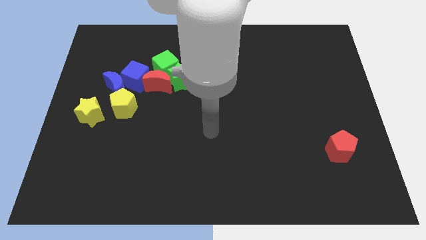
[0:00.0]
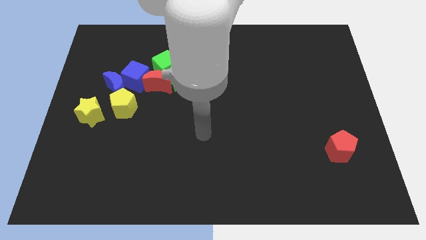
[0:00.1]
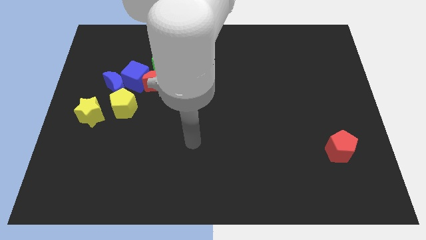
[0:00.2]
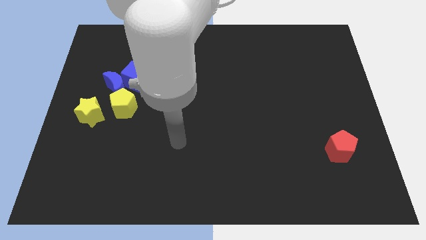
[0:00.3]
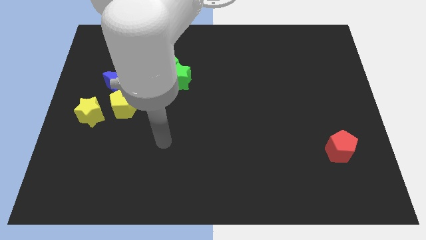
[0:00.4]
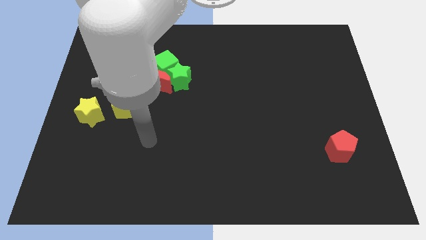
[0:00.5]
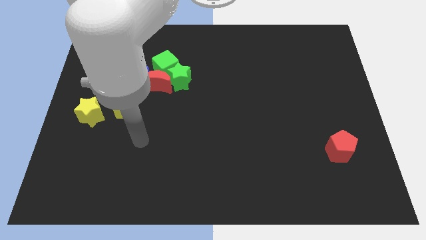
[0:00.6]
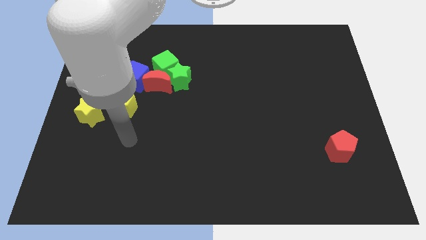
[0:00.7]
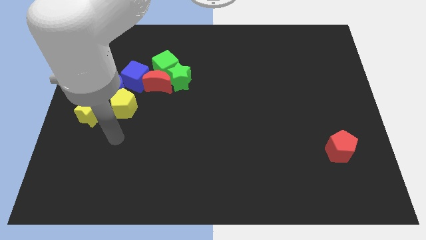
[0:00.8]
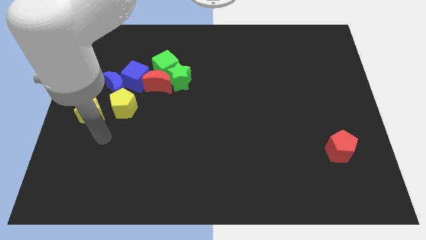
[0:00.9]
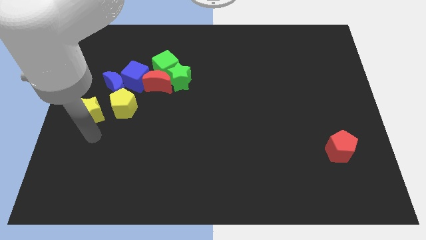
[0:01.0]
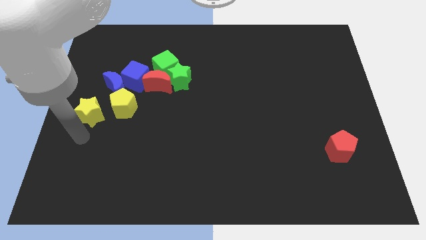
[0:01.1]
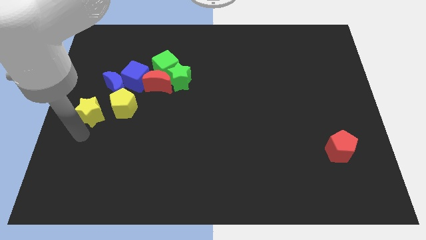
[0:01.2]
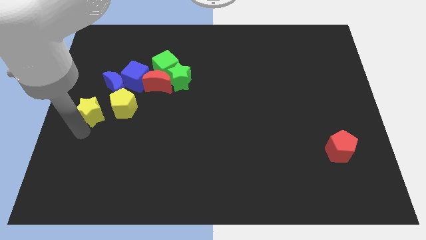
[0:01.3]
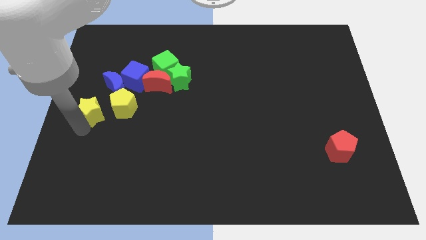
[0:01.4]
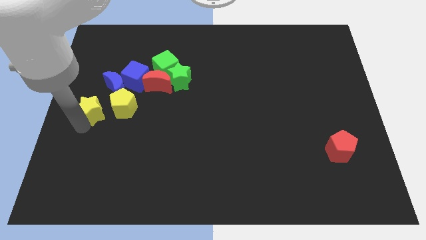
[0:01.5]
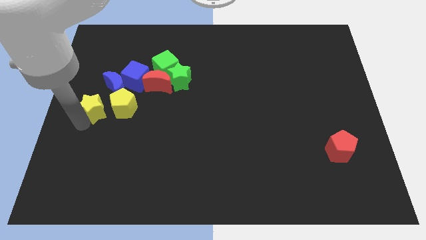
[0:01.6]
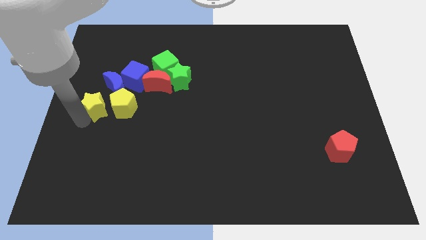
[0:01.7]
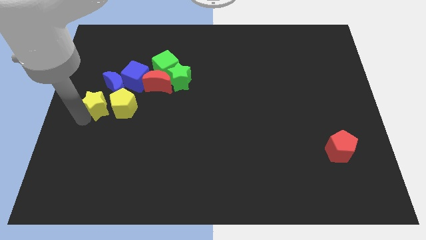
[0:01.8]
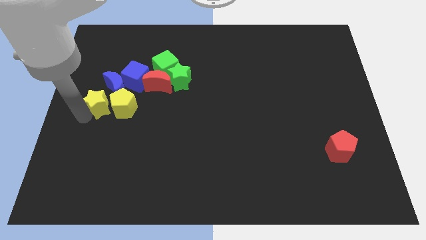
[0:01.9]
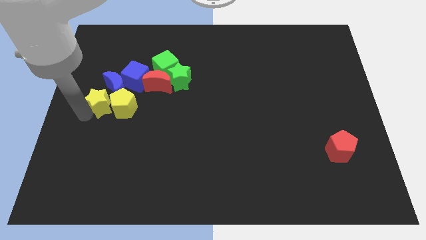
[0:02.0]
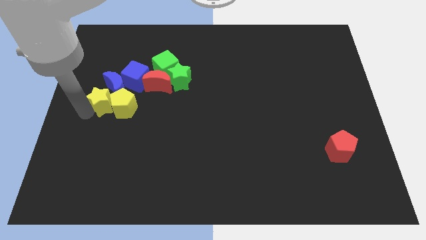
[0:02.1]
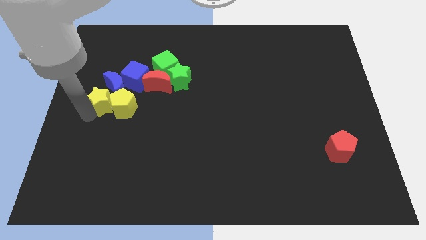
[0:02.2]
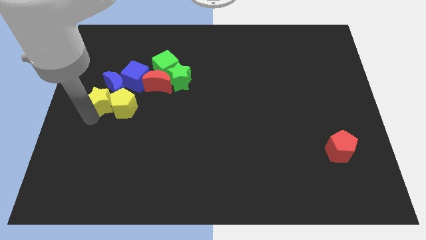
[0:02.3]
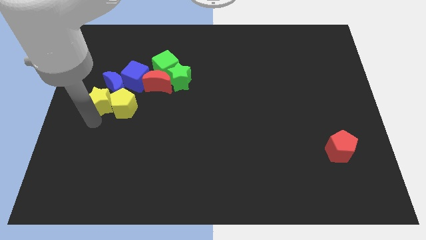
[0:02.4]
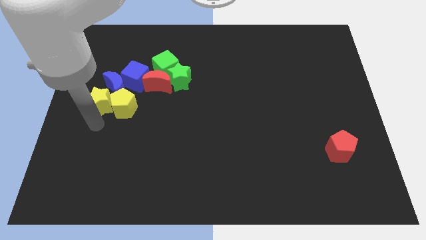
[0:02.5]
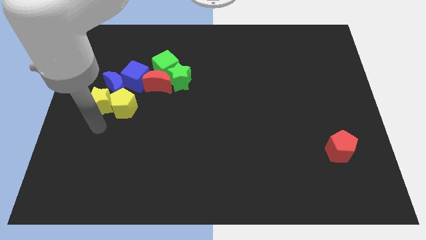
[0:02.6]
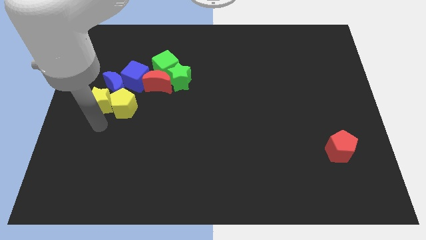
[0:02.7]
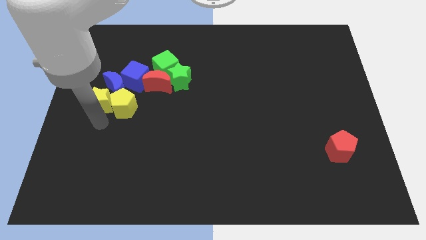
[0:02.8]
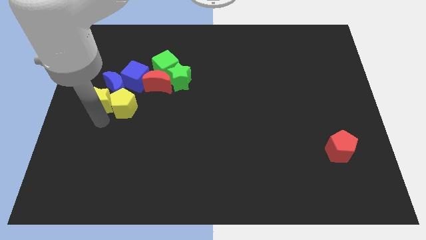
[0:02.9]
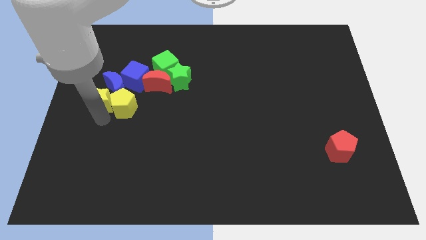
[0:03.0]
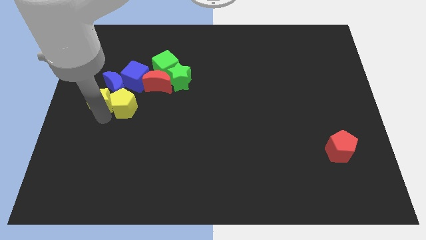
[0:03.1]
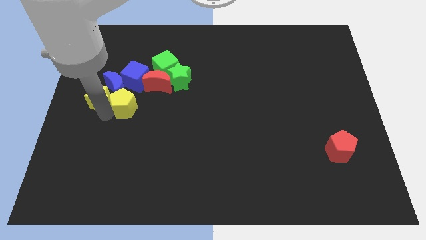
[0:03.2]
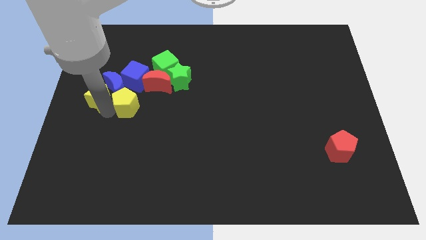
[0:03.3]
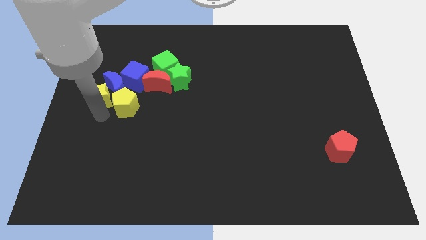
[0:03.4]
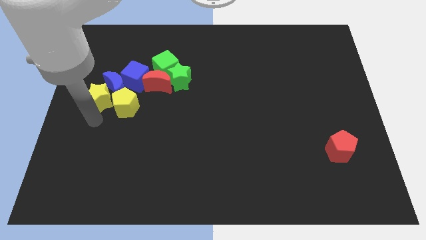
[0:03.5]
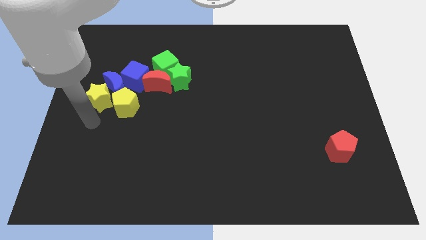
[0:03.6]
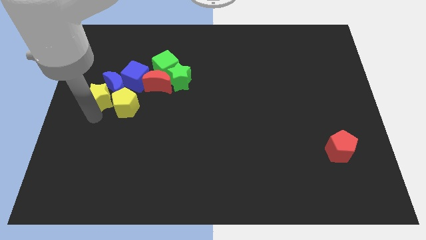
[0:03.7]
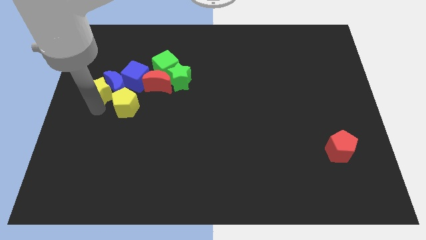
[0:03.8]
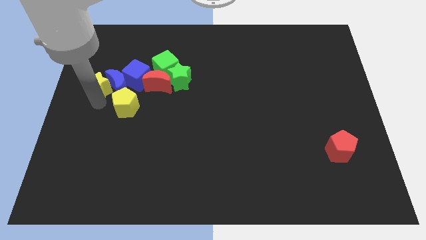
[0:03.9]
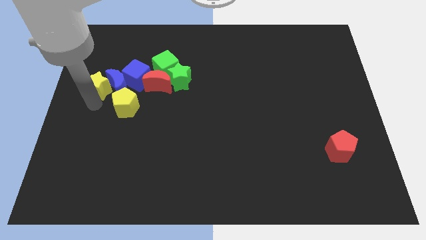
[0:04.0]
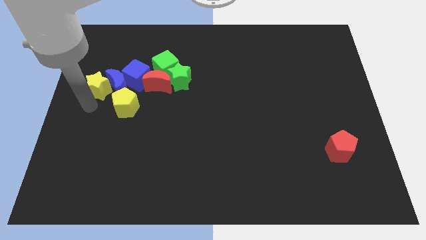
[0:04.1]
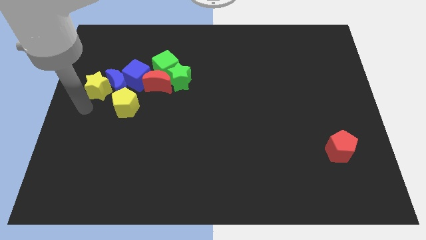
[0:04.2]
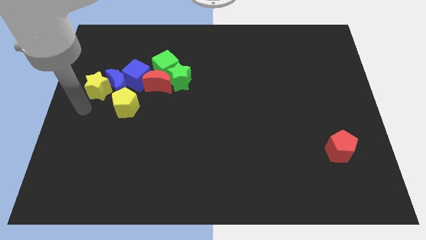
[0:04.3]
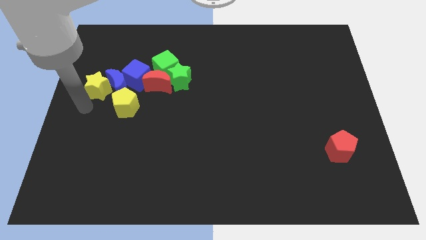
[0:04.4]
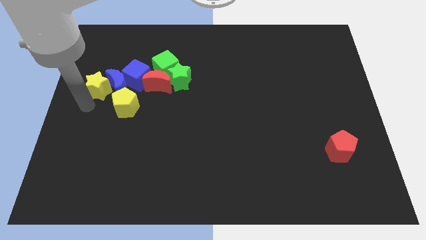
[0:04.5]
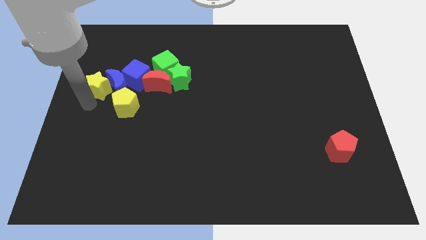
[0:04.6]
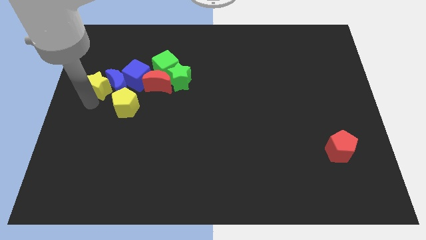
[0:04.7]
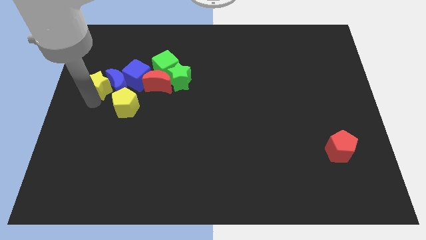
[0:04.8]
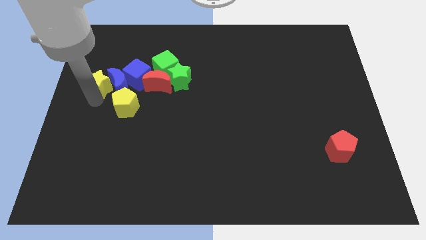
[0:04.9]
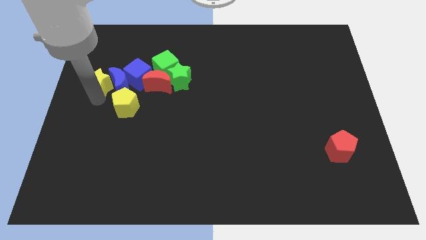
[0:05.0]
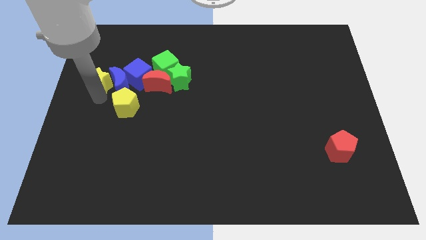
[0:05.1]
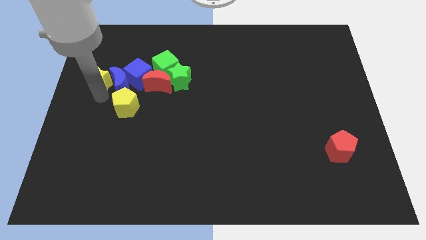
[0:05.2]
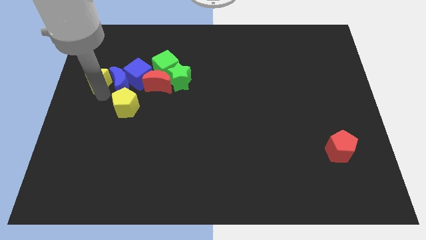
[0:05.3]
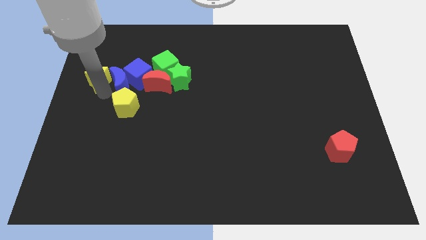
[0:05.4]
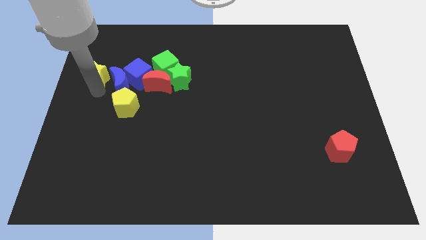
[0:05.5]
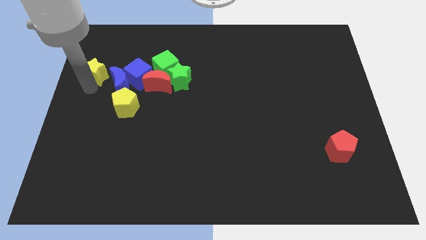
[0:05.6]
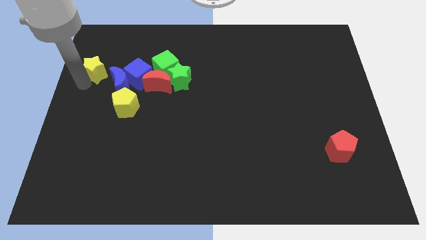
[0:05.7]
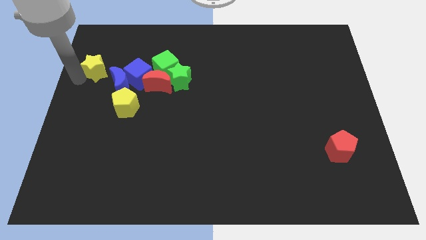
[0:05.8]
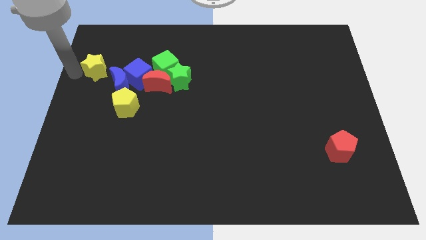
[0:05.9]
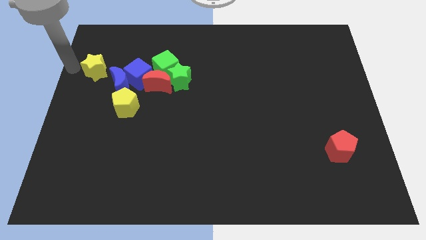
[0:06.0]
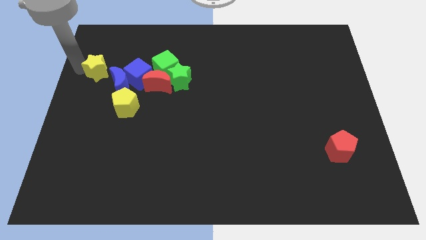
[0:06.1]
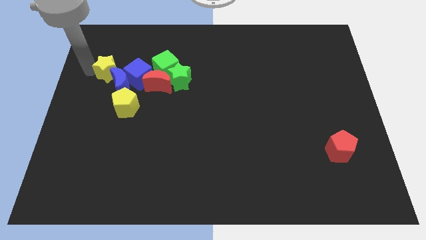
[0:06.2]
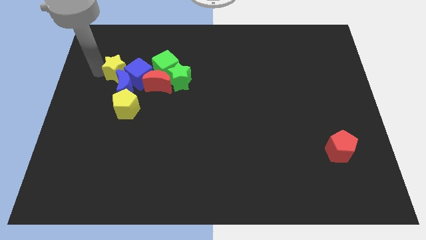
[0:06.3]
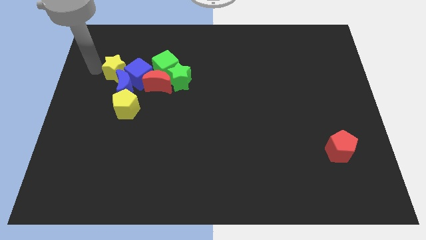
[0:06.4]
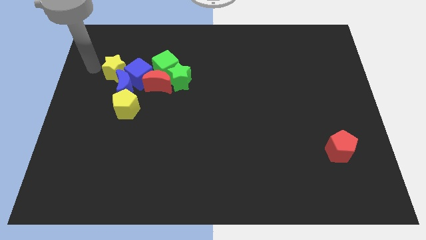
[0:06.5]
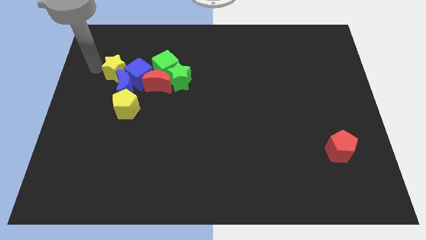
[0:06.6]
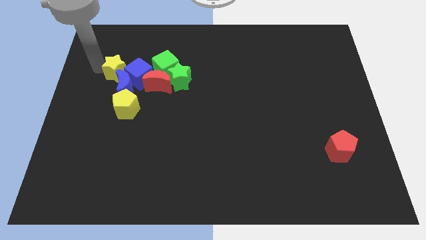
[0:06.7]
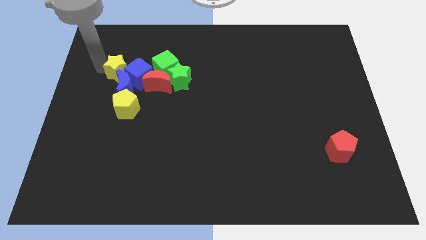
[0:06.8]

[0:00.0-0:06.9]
move the yellow star next to the blue cube

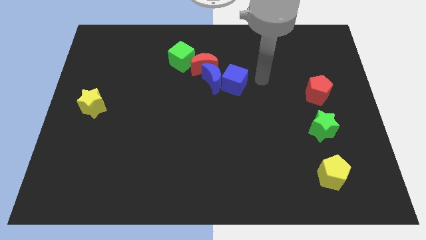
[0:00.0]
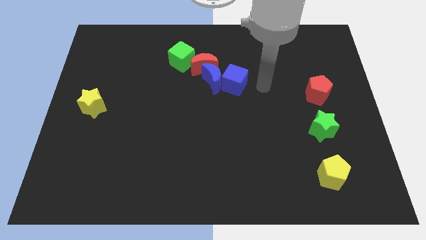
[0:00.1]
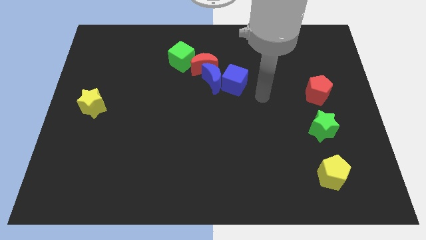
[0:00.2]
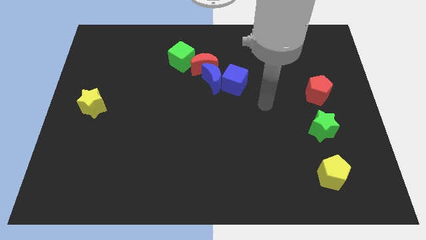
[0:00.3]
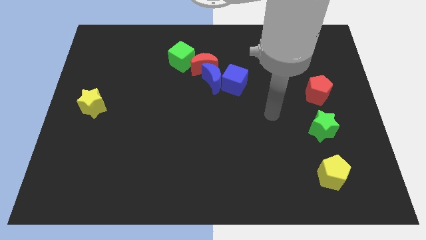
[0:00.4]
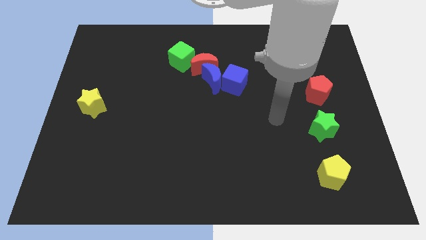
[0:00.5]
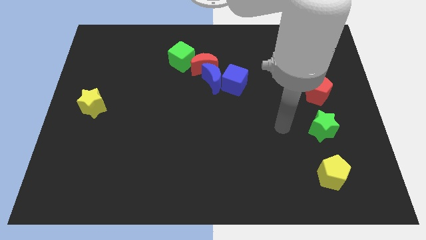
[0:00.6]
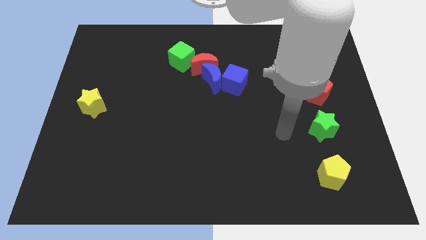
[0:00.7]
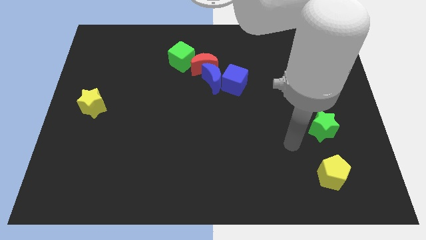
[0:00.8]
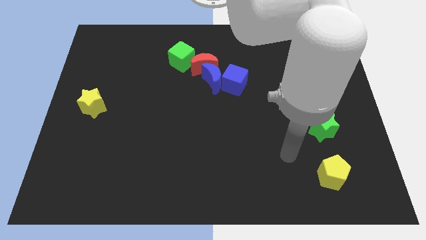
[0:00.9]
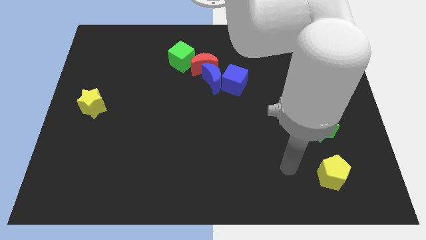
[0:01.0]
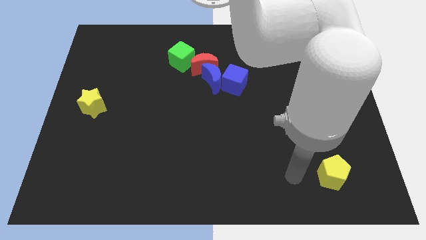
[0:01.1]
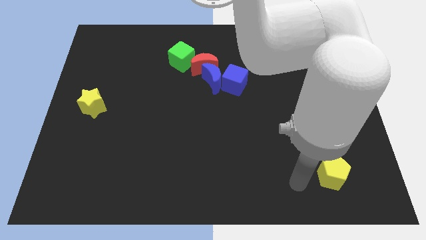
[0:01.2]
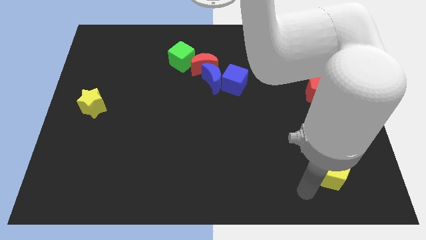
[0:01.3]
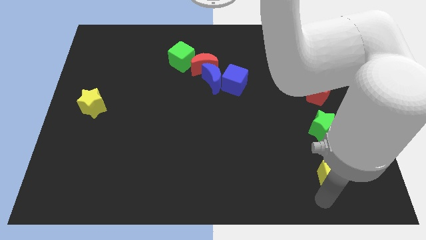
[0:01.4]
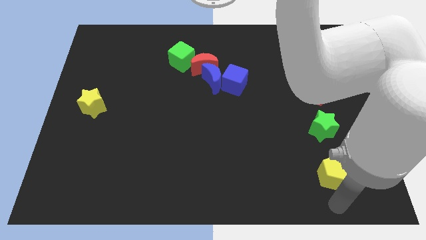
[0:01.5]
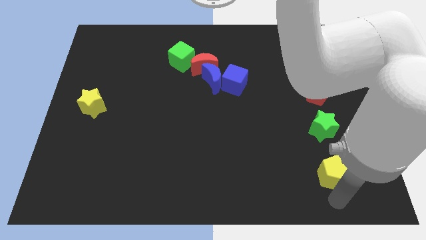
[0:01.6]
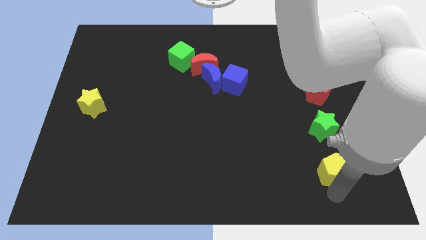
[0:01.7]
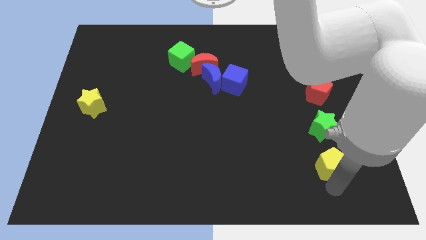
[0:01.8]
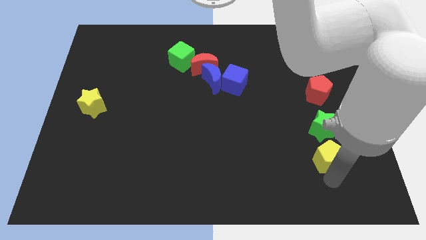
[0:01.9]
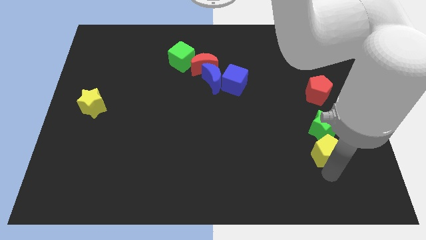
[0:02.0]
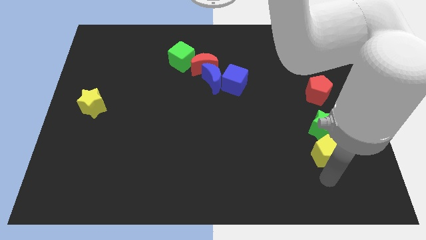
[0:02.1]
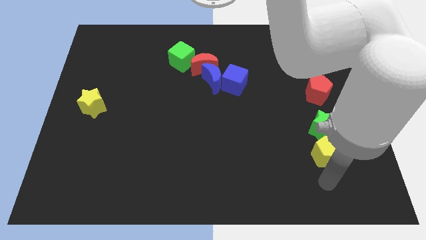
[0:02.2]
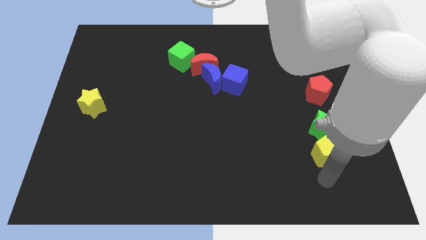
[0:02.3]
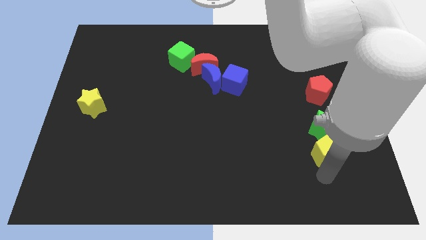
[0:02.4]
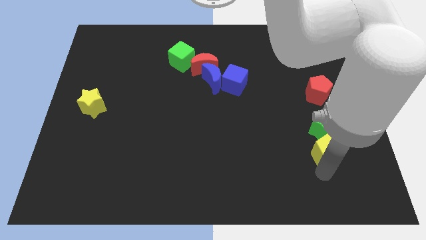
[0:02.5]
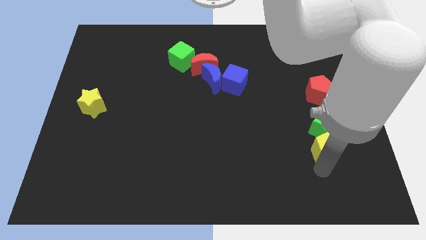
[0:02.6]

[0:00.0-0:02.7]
move the yellow pentagon close to the green star
